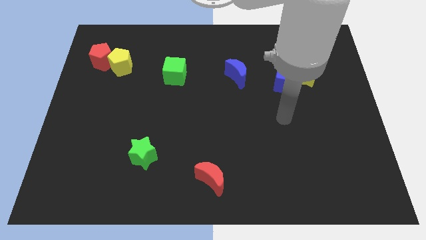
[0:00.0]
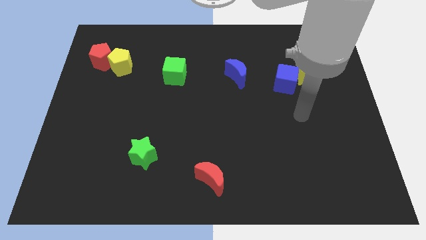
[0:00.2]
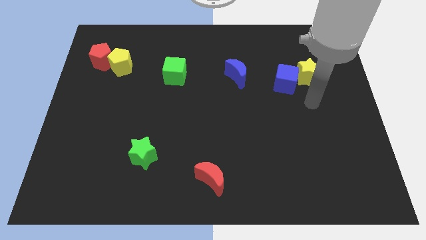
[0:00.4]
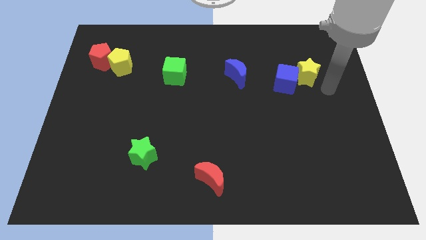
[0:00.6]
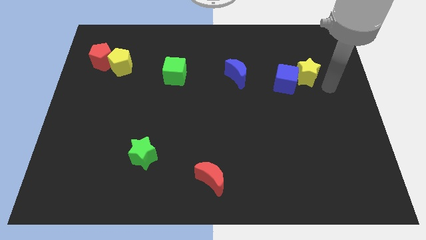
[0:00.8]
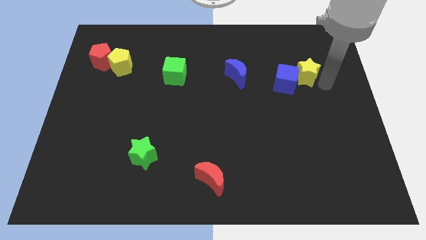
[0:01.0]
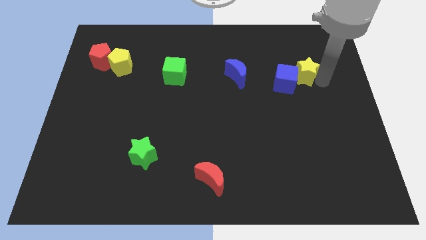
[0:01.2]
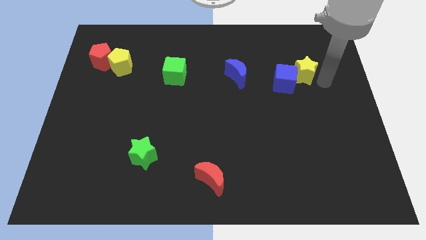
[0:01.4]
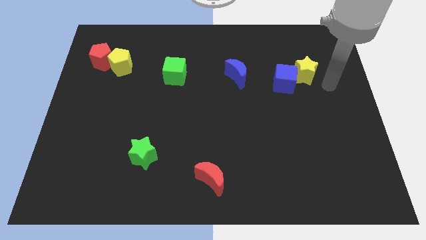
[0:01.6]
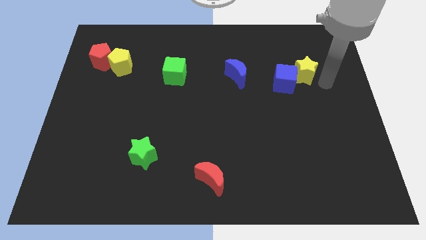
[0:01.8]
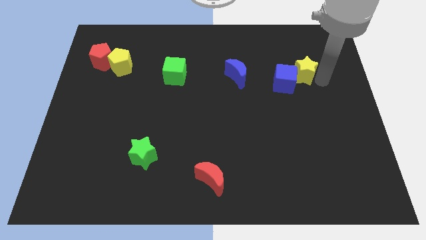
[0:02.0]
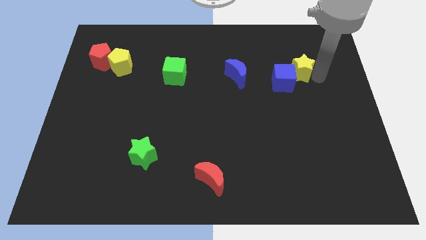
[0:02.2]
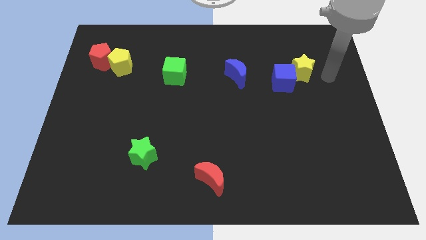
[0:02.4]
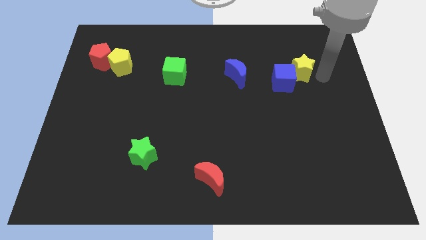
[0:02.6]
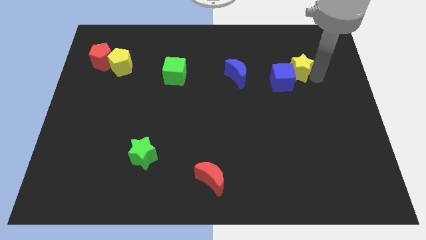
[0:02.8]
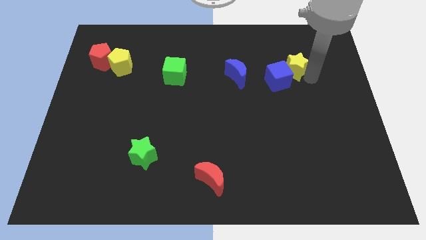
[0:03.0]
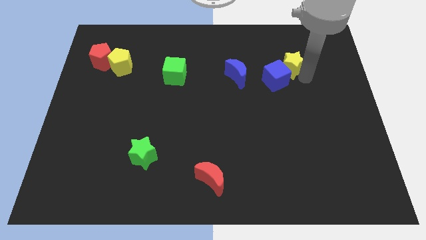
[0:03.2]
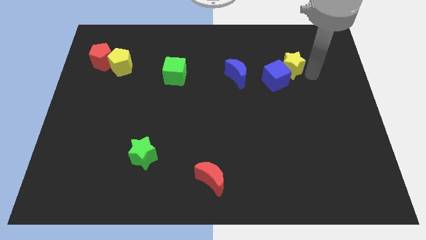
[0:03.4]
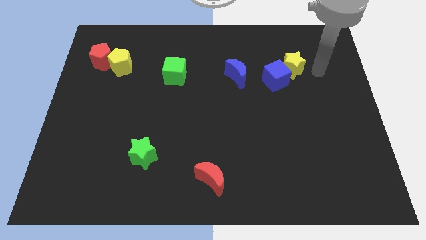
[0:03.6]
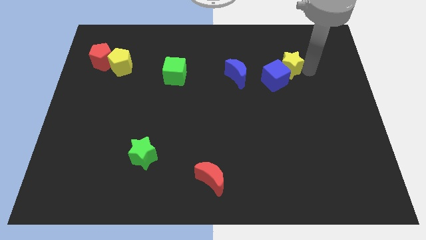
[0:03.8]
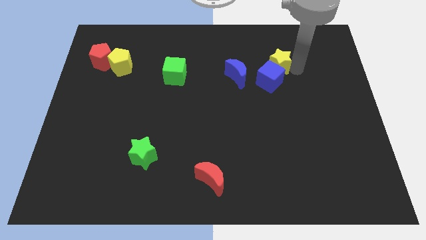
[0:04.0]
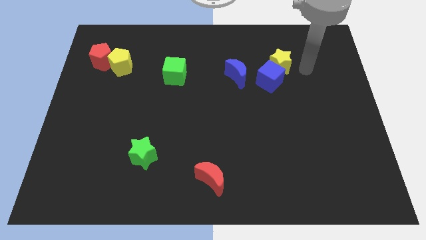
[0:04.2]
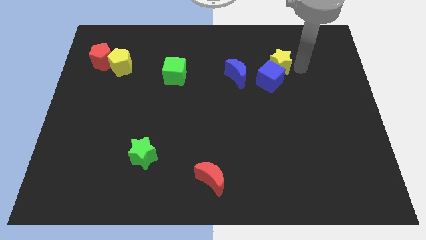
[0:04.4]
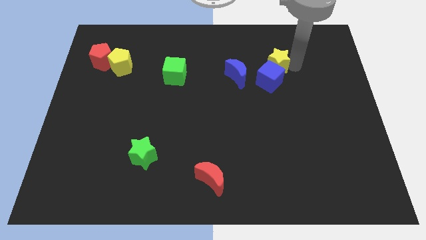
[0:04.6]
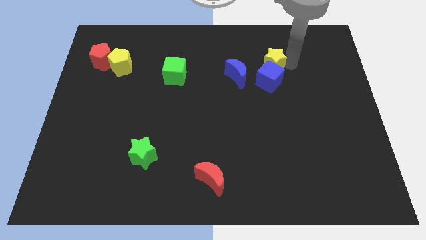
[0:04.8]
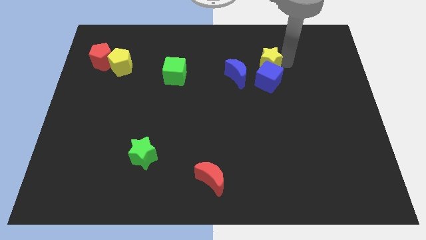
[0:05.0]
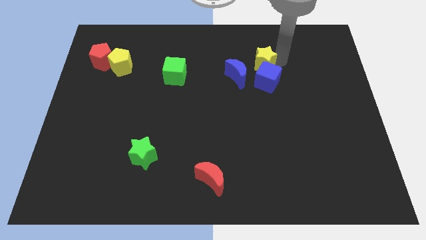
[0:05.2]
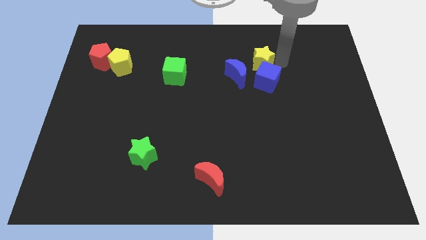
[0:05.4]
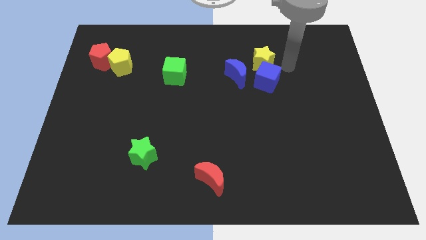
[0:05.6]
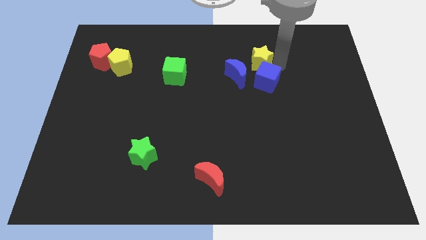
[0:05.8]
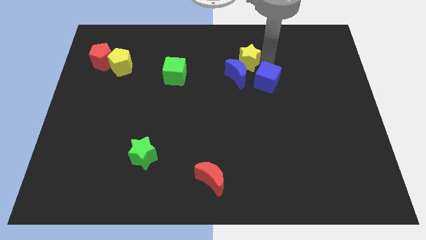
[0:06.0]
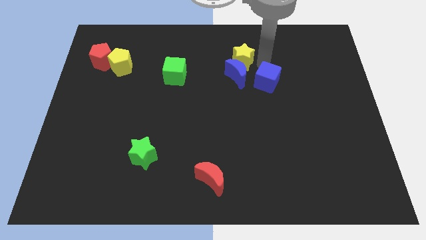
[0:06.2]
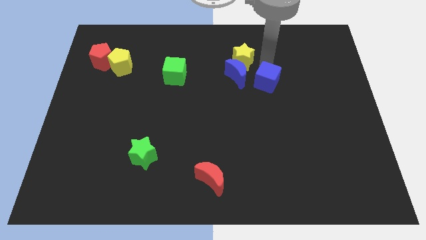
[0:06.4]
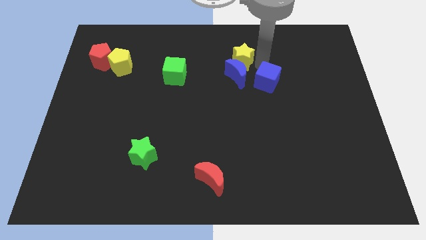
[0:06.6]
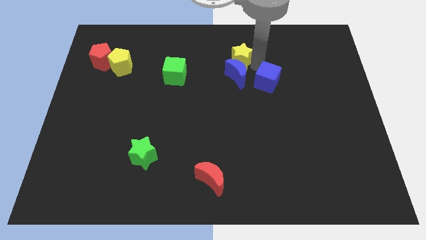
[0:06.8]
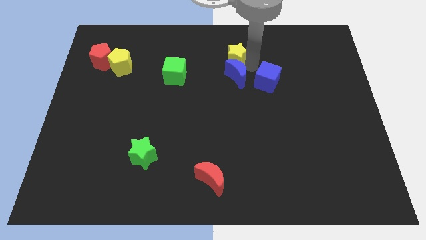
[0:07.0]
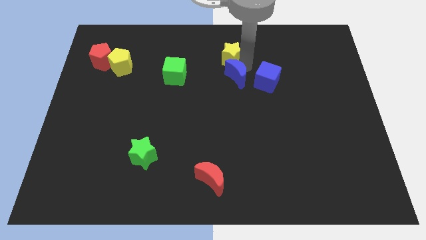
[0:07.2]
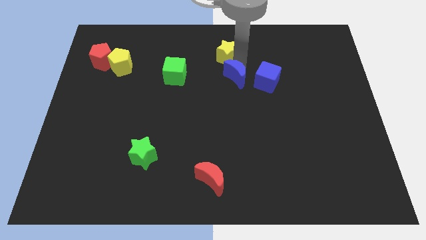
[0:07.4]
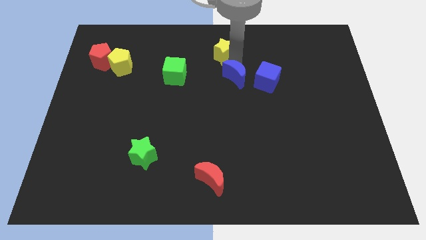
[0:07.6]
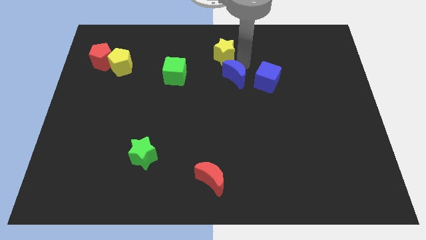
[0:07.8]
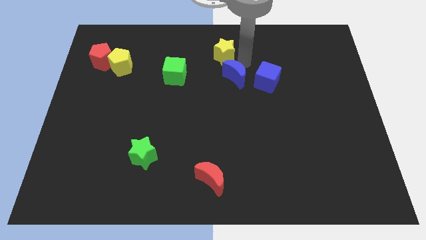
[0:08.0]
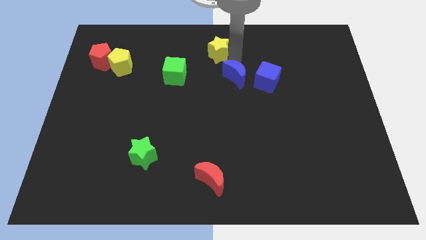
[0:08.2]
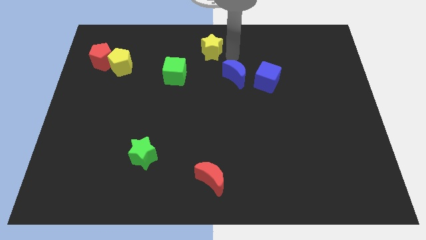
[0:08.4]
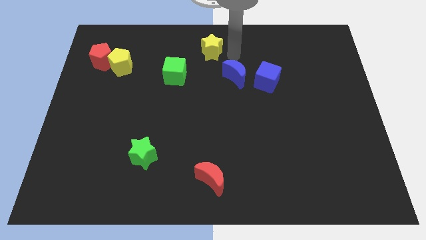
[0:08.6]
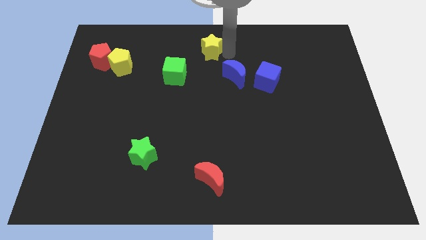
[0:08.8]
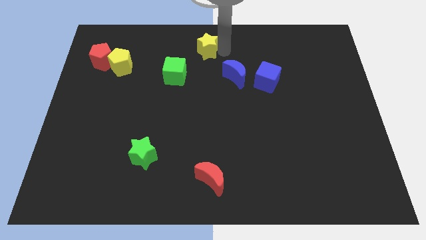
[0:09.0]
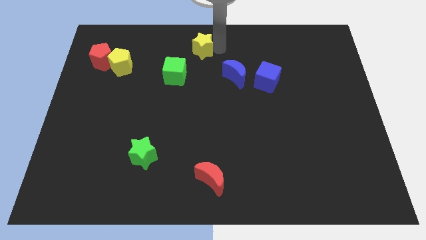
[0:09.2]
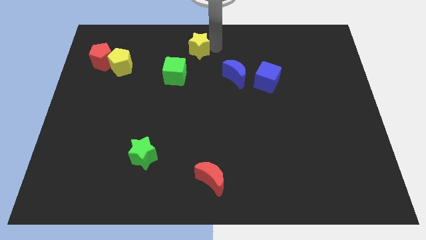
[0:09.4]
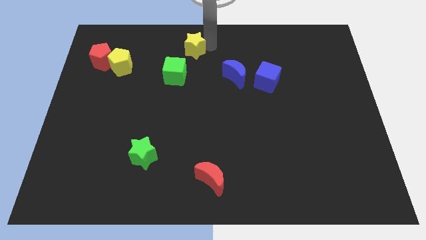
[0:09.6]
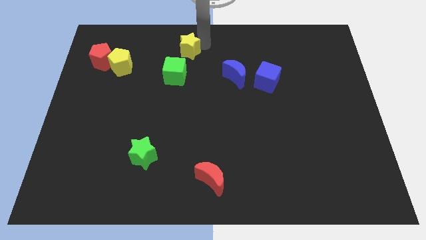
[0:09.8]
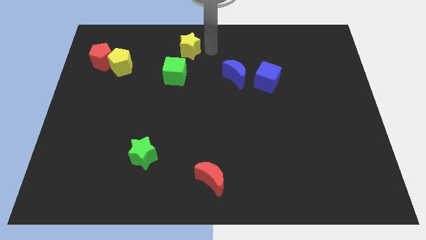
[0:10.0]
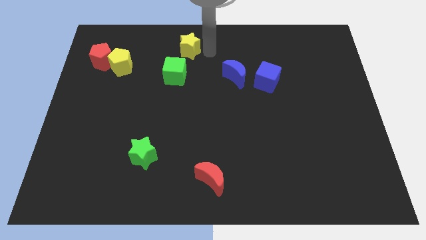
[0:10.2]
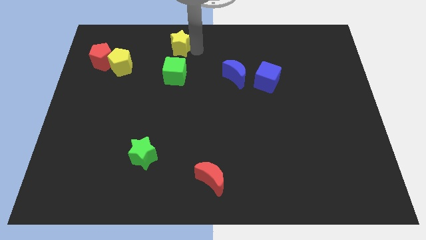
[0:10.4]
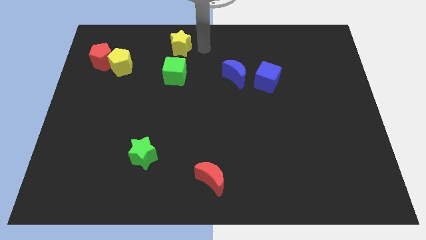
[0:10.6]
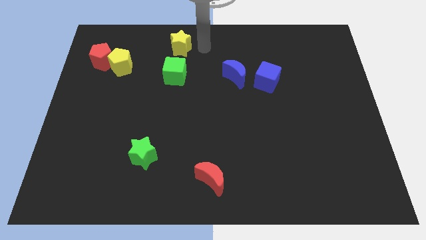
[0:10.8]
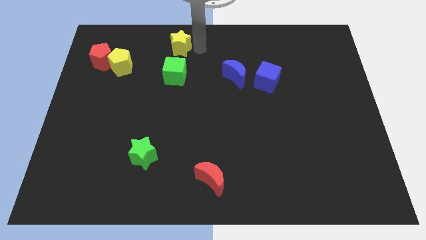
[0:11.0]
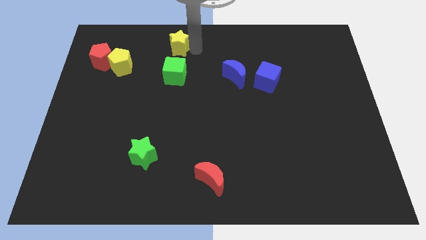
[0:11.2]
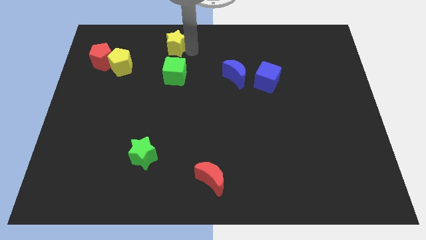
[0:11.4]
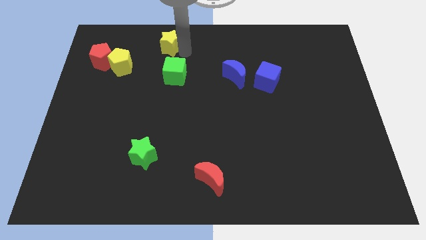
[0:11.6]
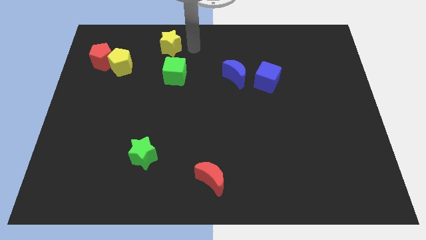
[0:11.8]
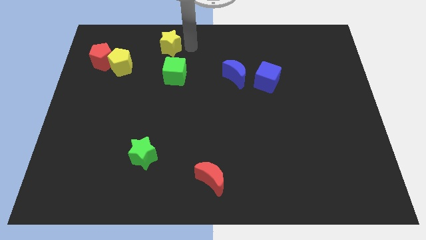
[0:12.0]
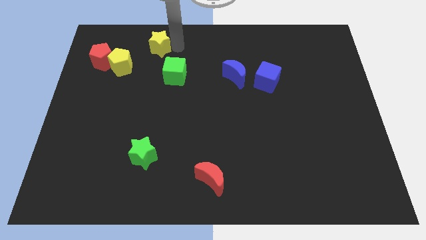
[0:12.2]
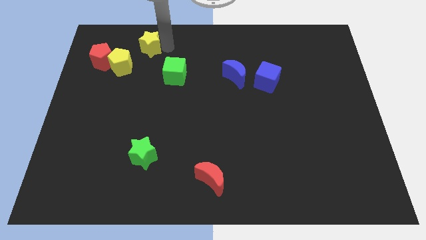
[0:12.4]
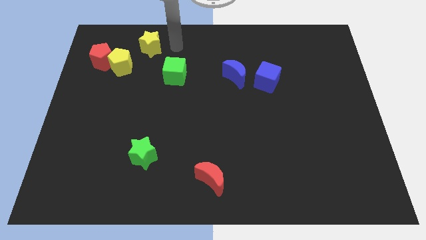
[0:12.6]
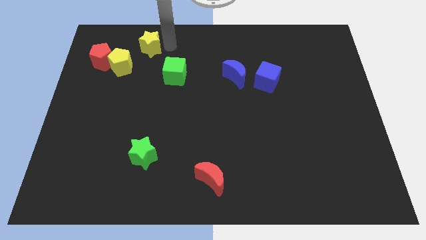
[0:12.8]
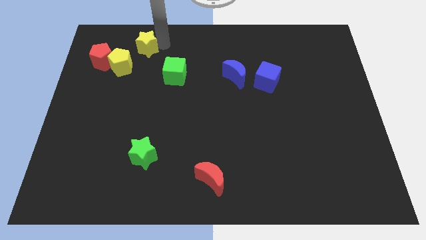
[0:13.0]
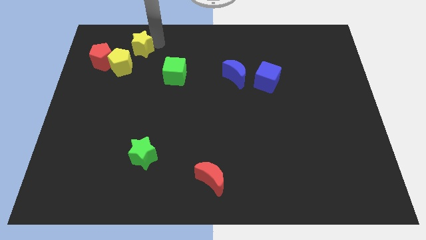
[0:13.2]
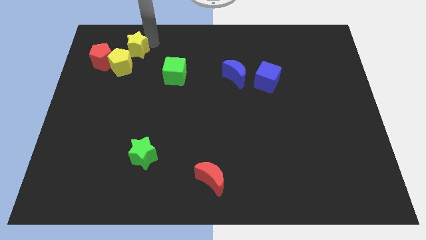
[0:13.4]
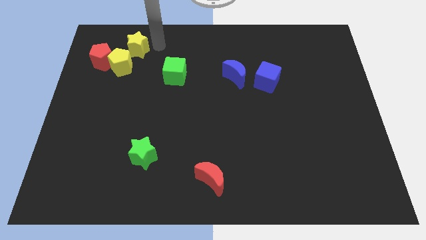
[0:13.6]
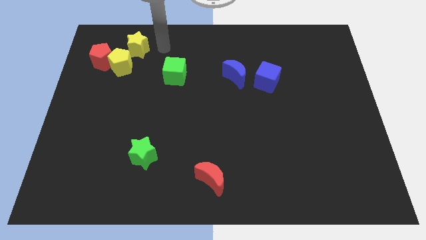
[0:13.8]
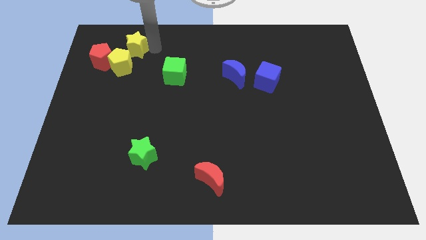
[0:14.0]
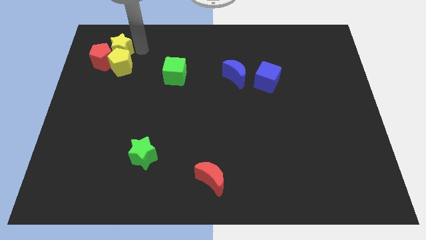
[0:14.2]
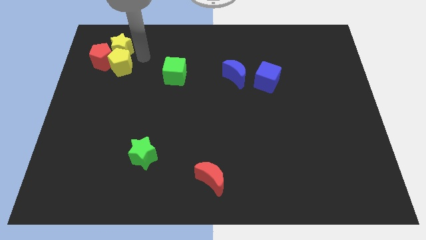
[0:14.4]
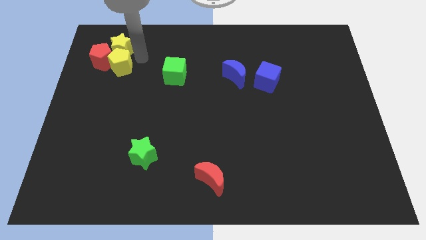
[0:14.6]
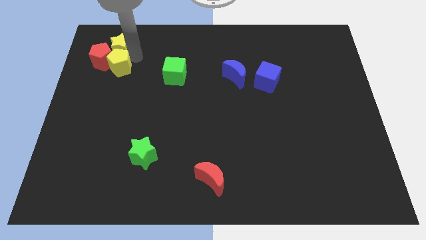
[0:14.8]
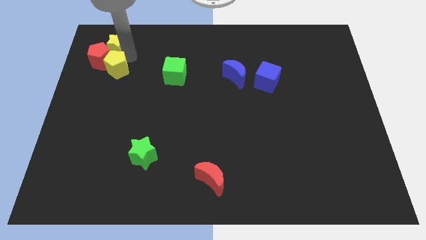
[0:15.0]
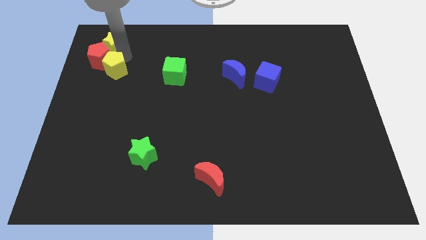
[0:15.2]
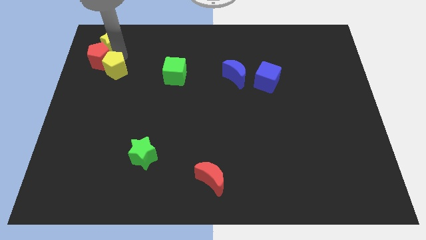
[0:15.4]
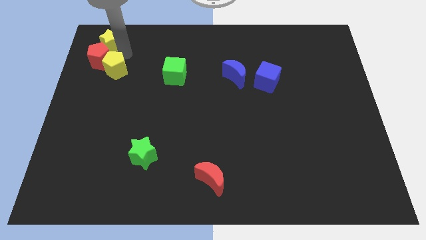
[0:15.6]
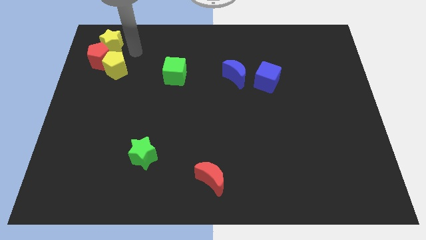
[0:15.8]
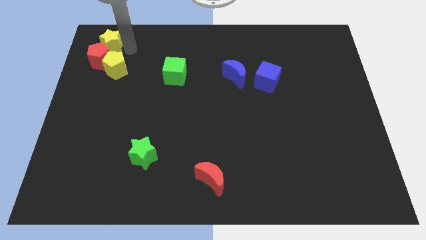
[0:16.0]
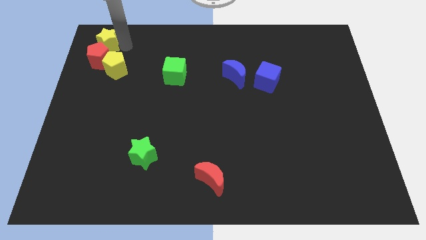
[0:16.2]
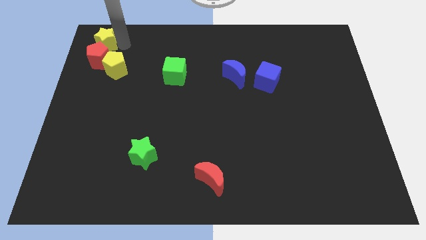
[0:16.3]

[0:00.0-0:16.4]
put the yellow star to the top left
